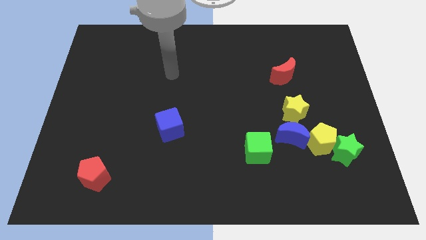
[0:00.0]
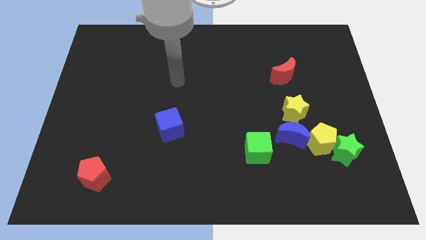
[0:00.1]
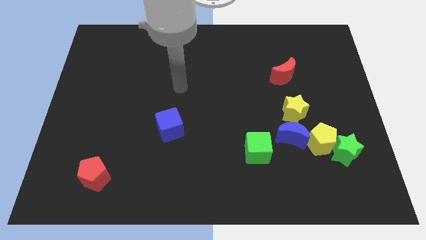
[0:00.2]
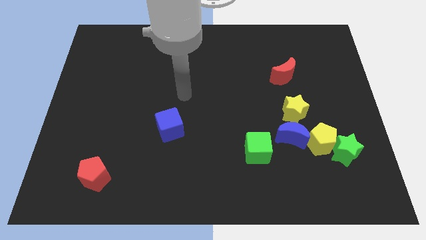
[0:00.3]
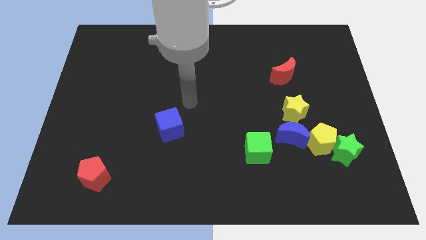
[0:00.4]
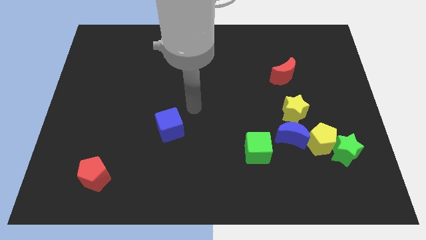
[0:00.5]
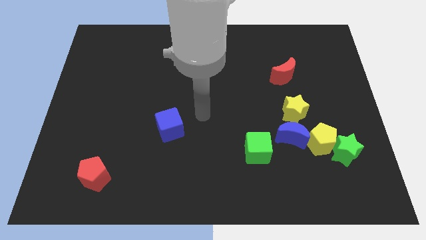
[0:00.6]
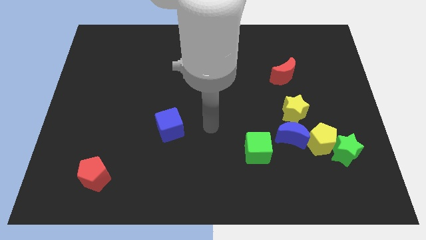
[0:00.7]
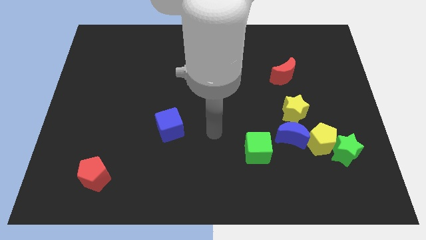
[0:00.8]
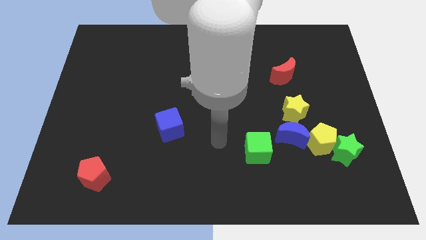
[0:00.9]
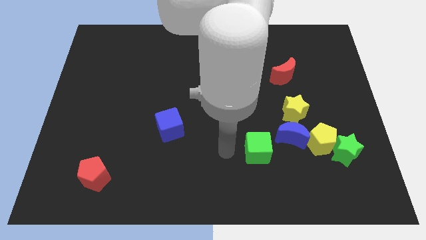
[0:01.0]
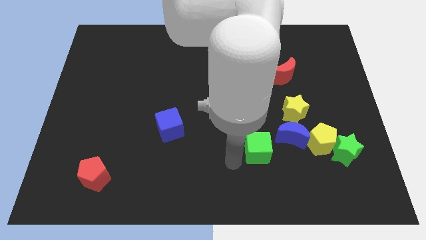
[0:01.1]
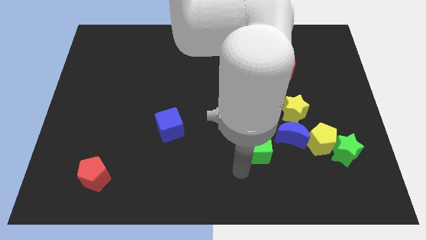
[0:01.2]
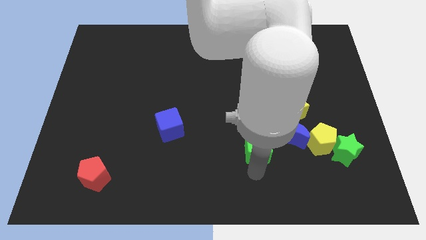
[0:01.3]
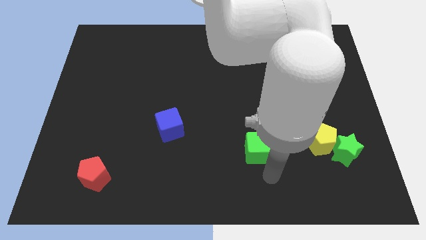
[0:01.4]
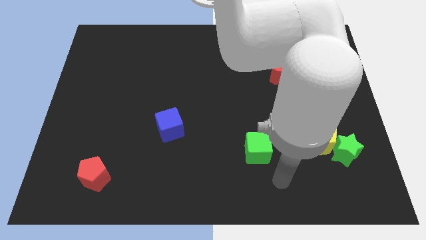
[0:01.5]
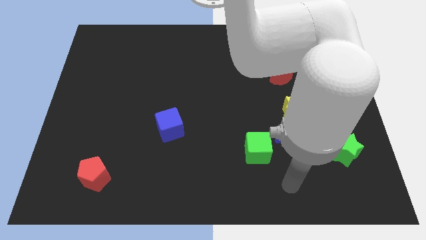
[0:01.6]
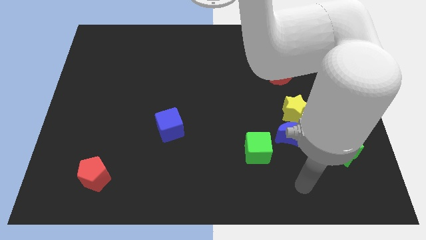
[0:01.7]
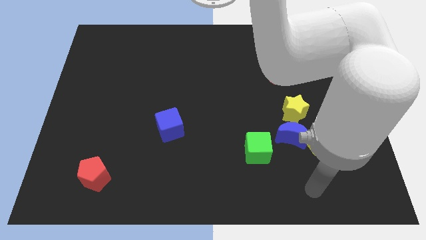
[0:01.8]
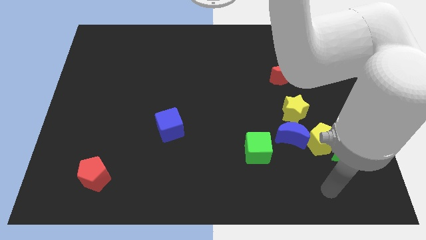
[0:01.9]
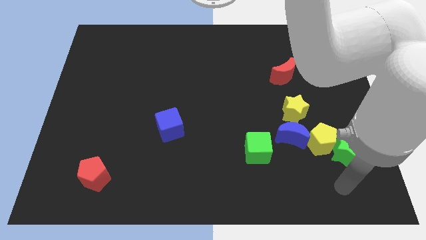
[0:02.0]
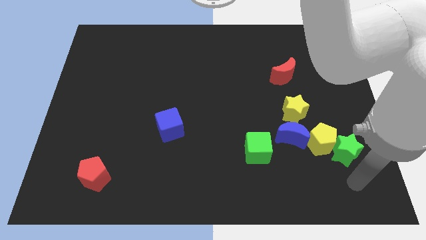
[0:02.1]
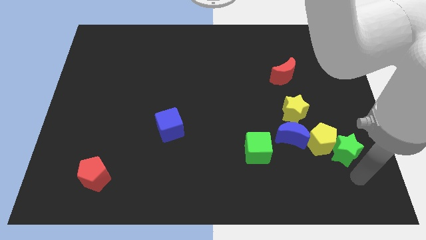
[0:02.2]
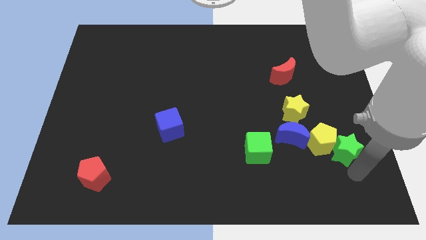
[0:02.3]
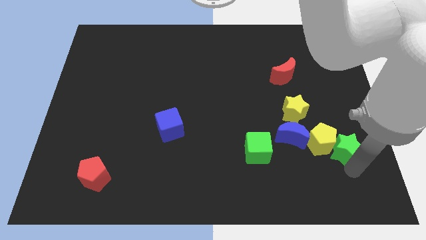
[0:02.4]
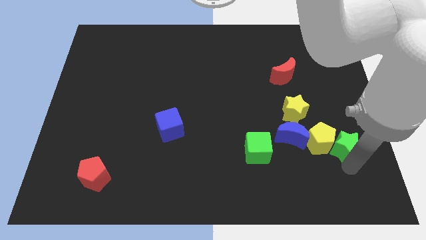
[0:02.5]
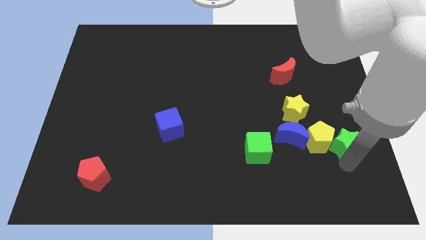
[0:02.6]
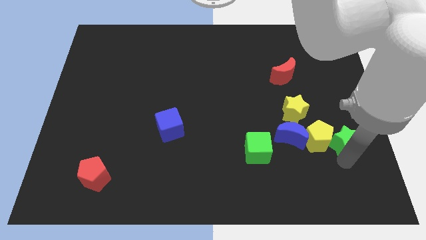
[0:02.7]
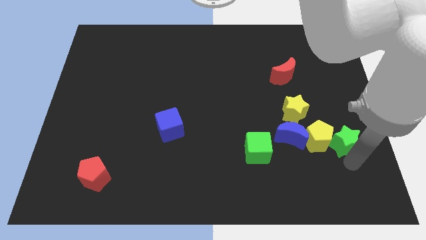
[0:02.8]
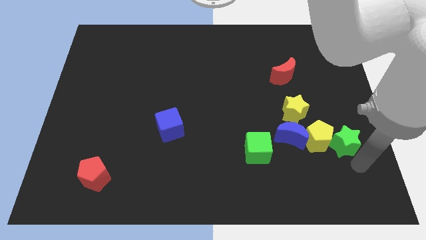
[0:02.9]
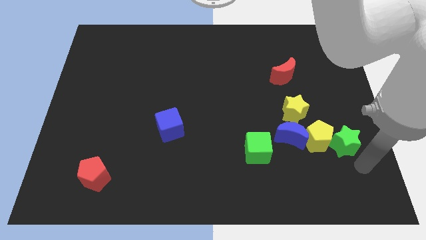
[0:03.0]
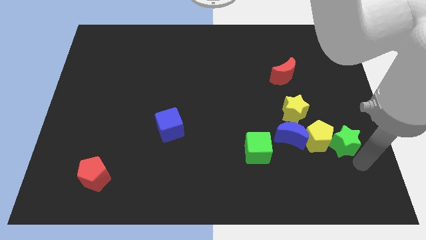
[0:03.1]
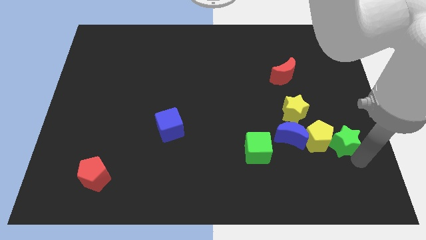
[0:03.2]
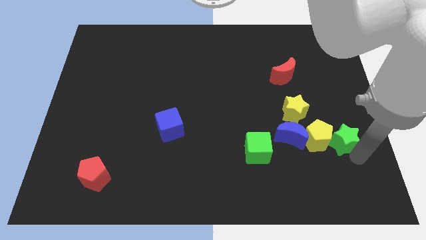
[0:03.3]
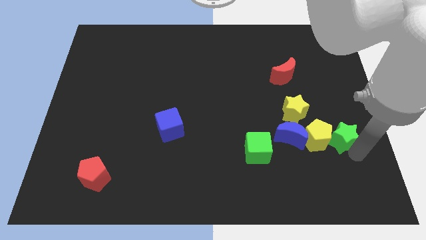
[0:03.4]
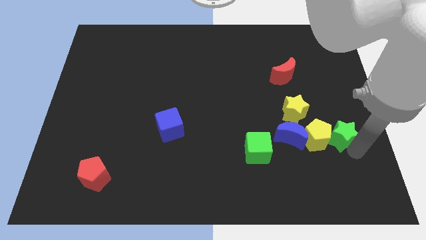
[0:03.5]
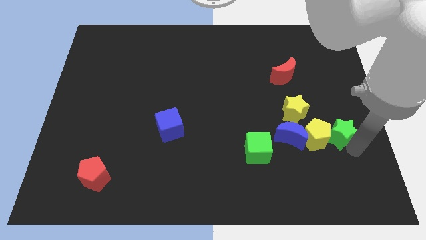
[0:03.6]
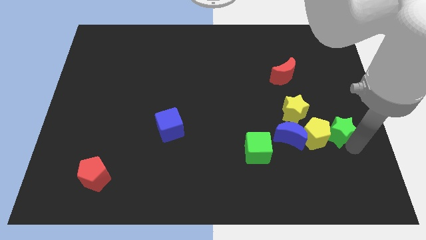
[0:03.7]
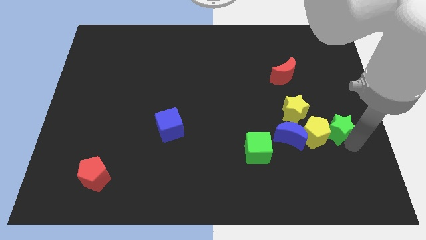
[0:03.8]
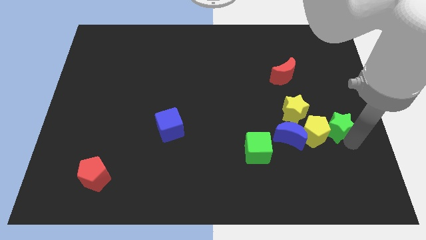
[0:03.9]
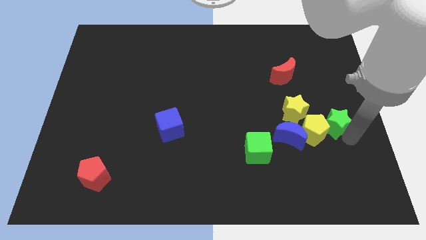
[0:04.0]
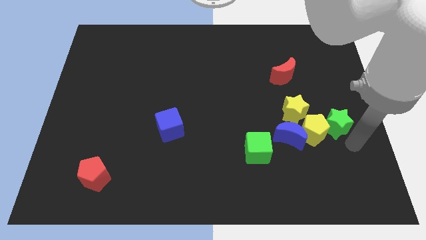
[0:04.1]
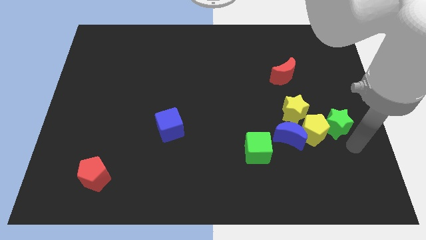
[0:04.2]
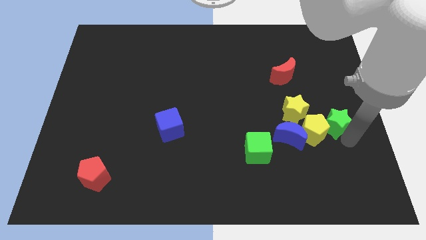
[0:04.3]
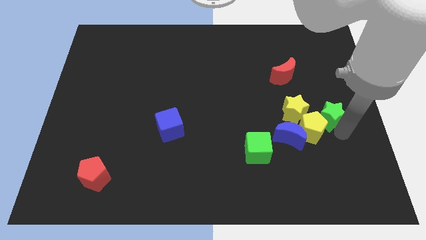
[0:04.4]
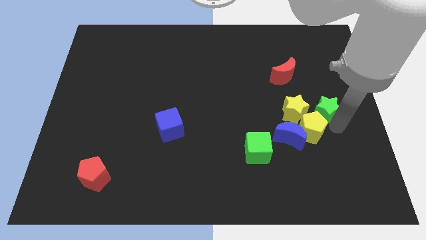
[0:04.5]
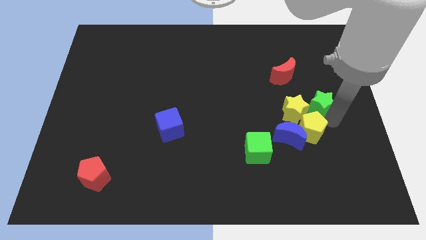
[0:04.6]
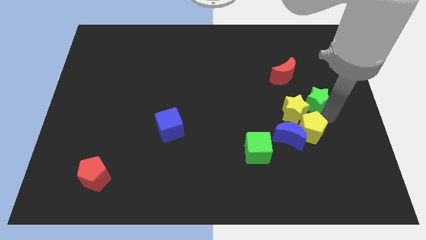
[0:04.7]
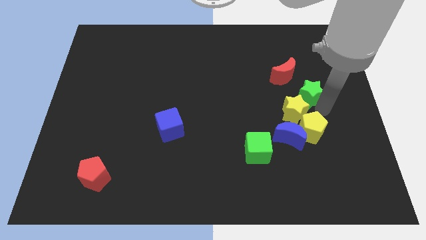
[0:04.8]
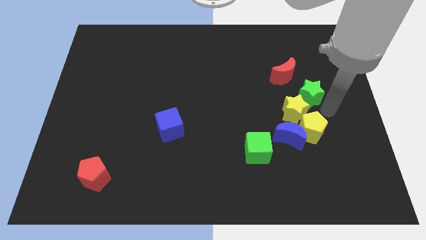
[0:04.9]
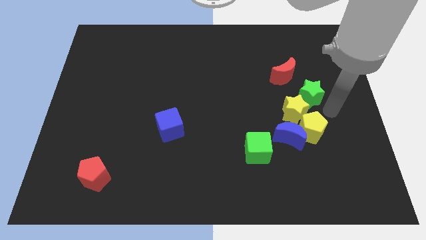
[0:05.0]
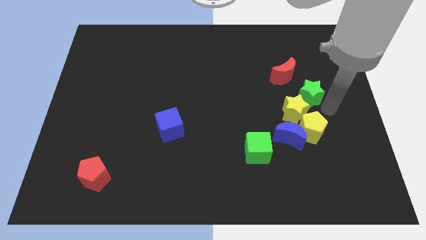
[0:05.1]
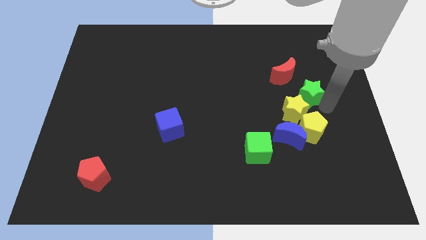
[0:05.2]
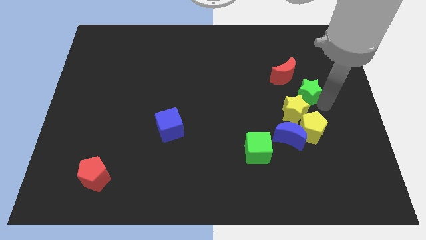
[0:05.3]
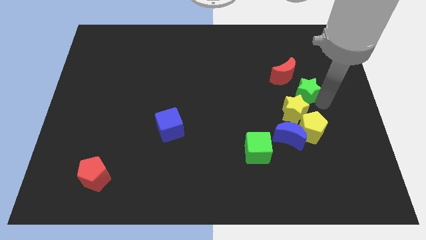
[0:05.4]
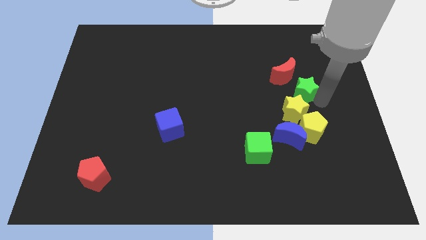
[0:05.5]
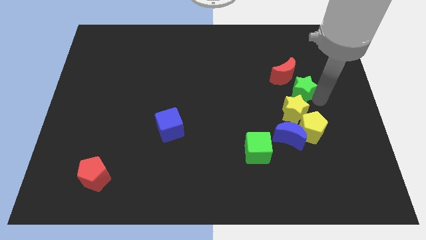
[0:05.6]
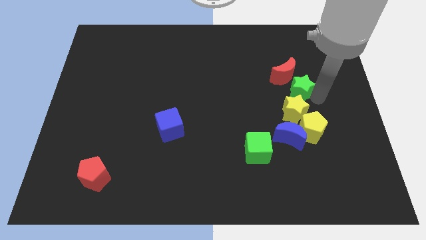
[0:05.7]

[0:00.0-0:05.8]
move the green star to the red moon

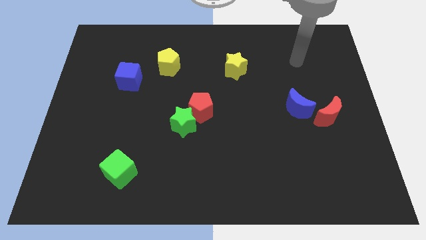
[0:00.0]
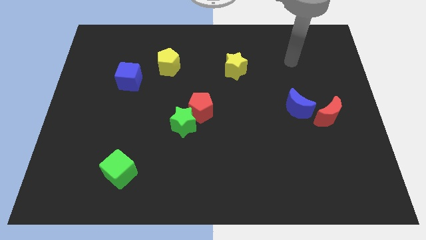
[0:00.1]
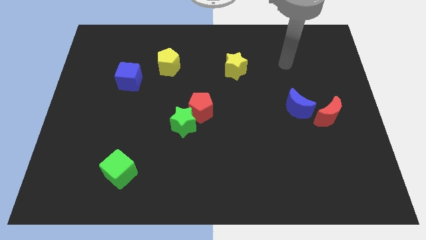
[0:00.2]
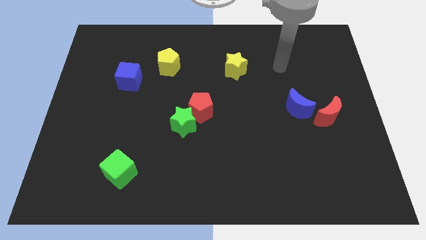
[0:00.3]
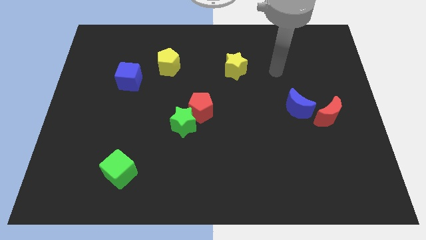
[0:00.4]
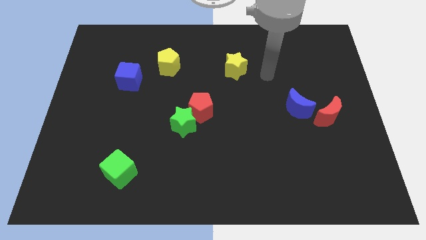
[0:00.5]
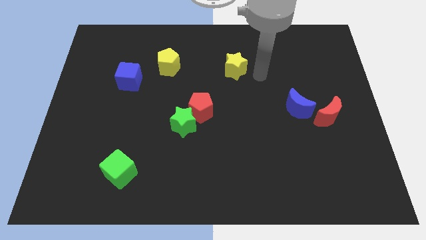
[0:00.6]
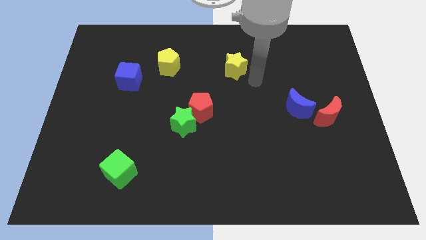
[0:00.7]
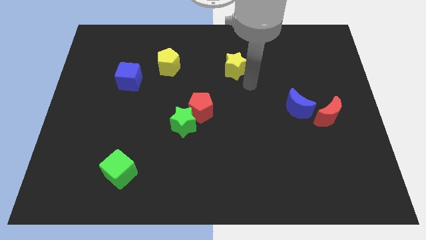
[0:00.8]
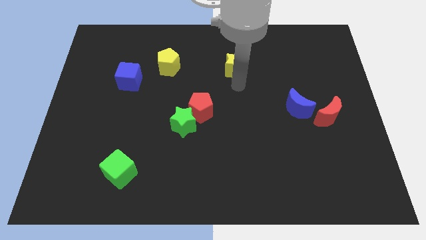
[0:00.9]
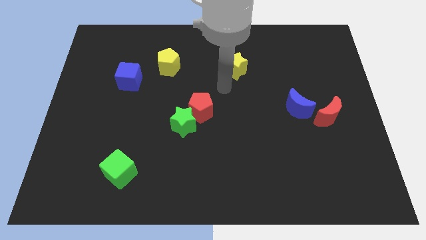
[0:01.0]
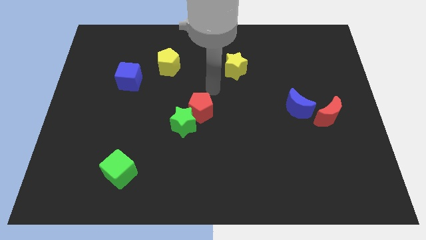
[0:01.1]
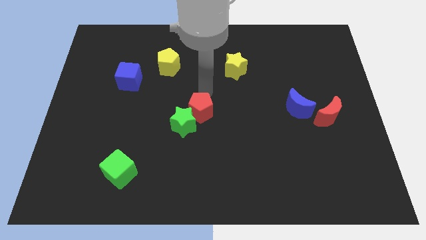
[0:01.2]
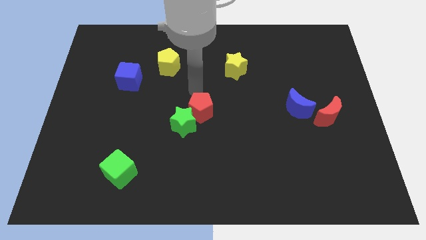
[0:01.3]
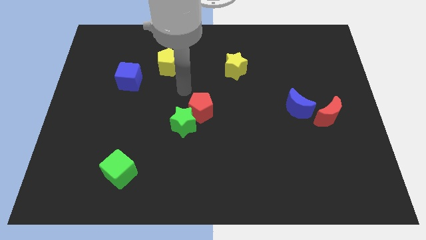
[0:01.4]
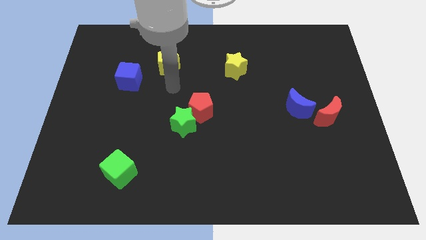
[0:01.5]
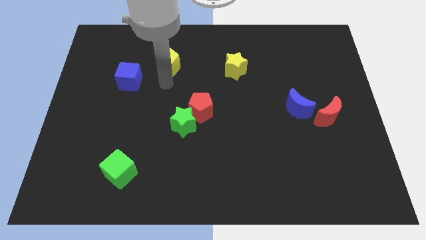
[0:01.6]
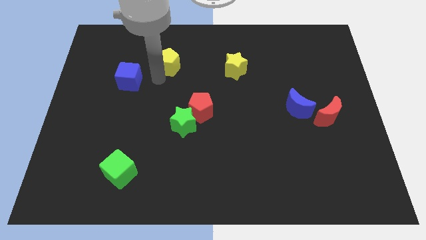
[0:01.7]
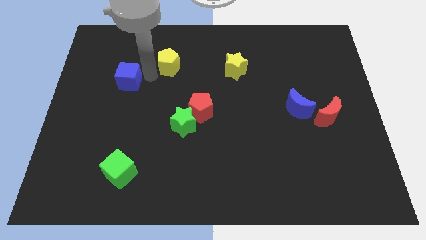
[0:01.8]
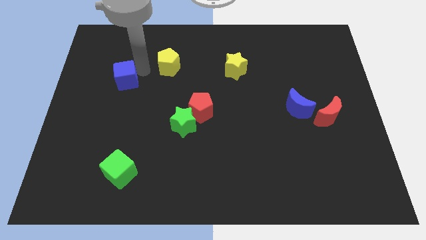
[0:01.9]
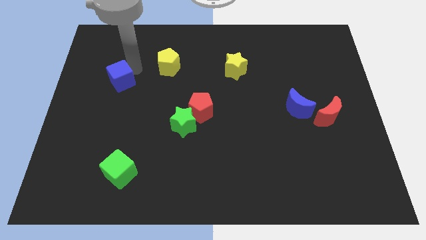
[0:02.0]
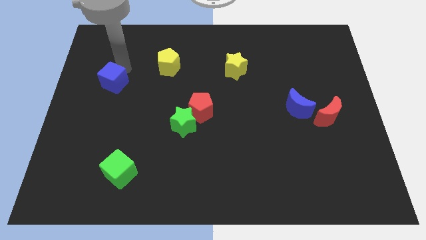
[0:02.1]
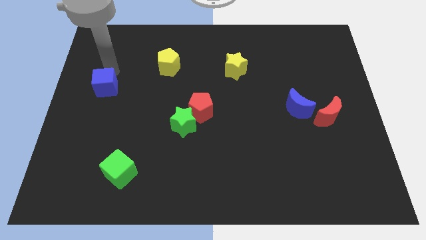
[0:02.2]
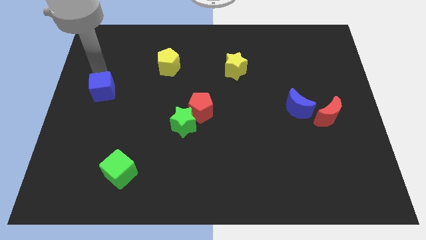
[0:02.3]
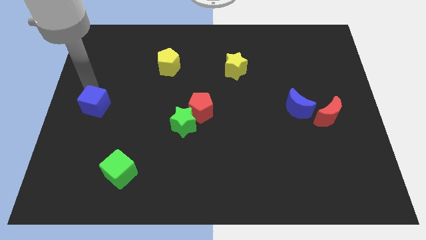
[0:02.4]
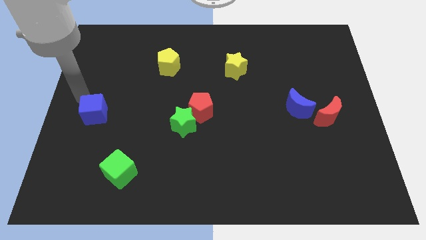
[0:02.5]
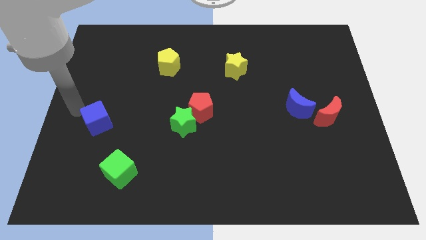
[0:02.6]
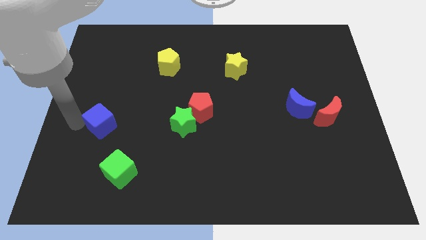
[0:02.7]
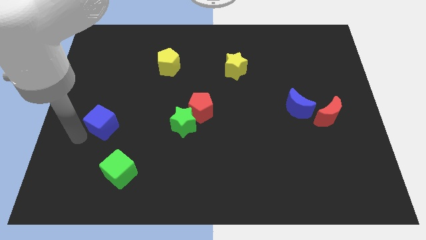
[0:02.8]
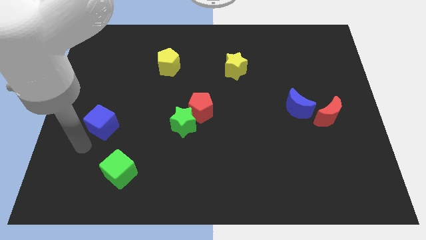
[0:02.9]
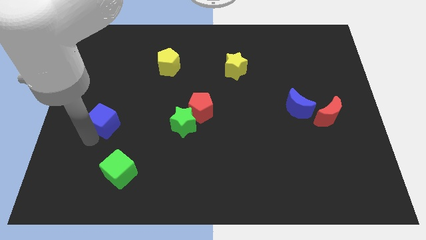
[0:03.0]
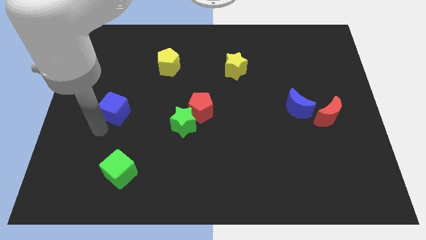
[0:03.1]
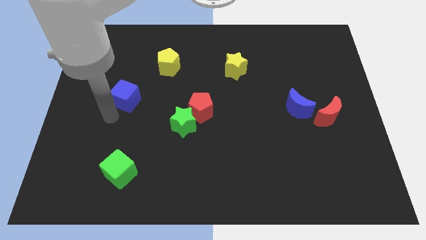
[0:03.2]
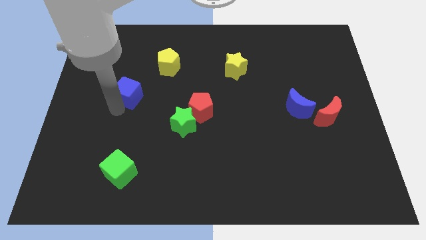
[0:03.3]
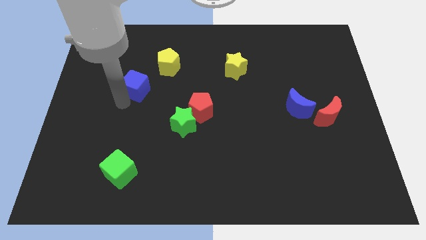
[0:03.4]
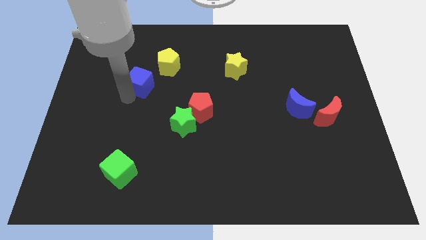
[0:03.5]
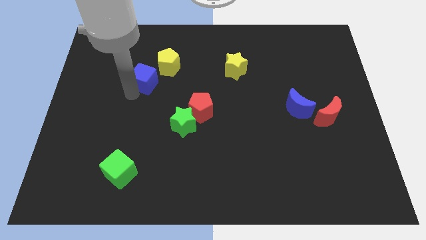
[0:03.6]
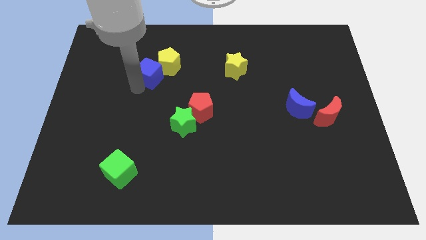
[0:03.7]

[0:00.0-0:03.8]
put the blue cube close to the yellow pentagon
